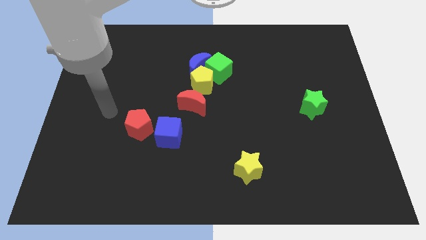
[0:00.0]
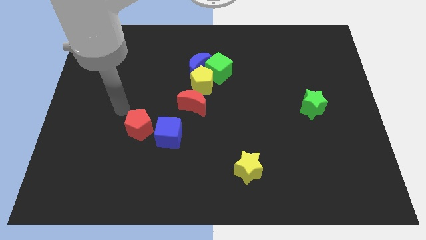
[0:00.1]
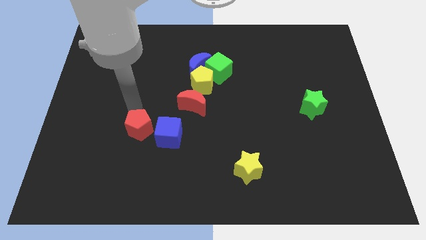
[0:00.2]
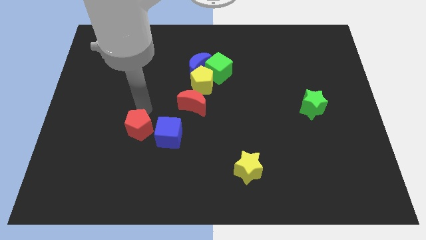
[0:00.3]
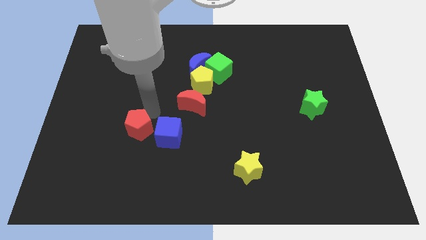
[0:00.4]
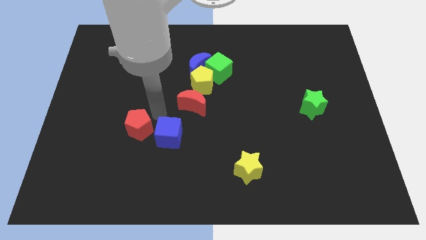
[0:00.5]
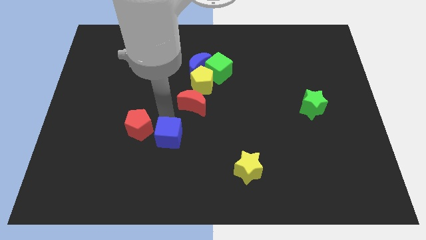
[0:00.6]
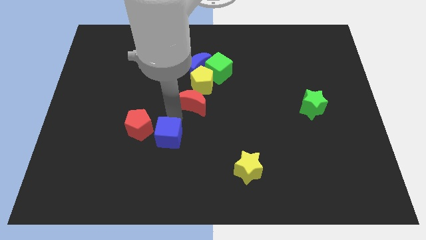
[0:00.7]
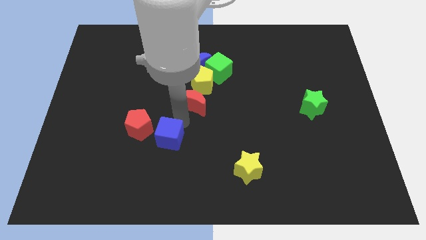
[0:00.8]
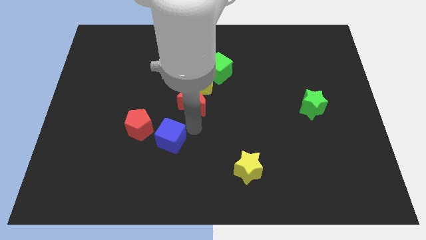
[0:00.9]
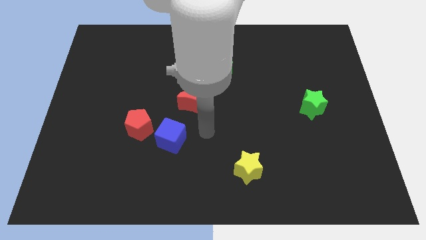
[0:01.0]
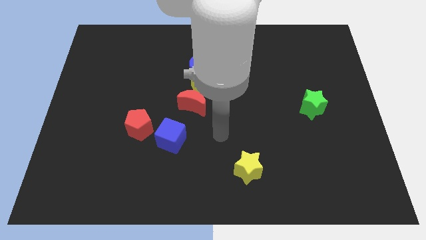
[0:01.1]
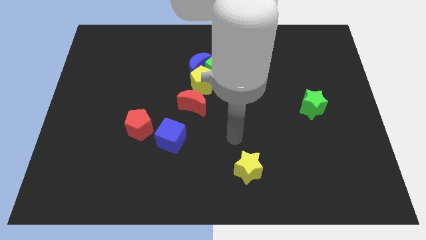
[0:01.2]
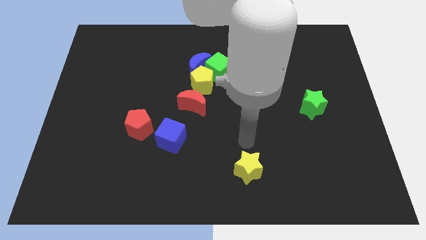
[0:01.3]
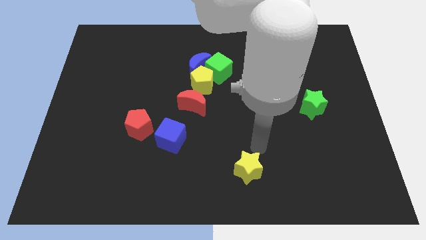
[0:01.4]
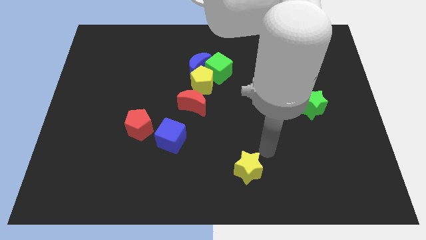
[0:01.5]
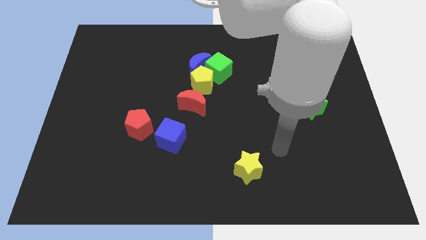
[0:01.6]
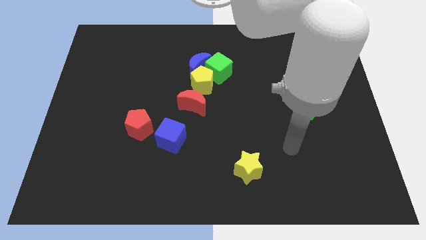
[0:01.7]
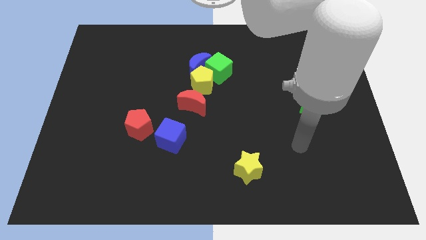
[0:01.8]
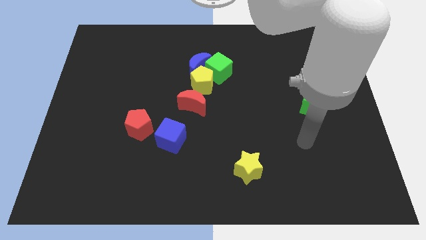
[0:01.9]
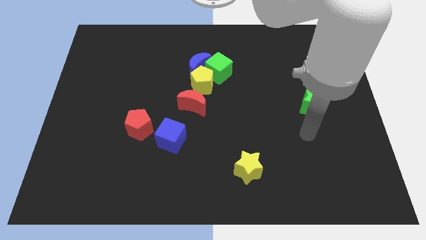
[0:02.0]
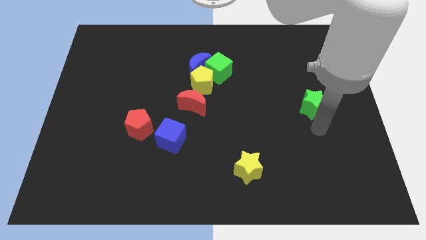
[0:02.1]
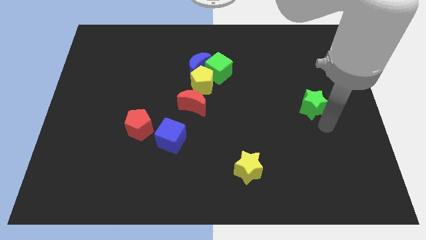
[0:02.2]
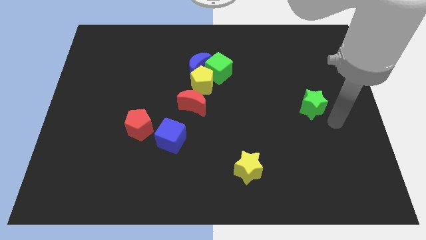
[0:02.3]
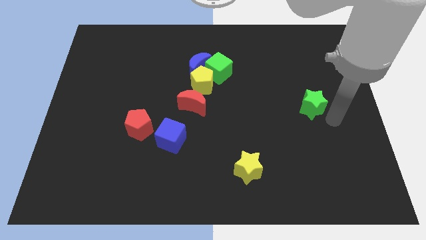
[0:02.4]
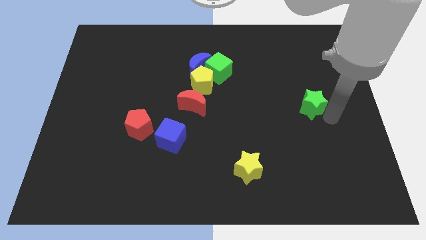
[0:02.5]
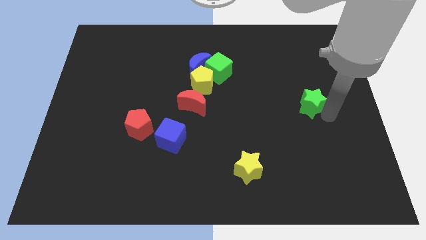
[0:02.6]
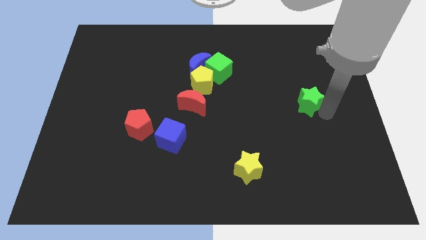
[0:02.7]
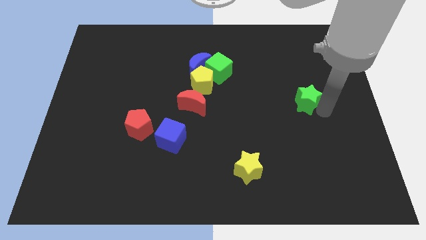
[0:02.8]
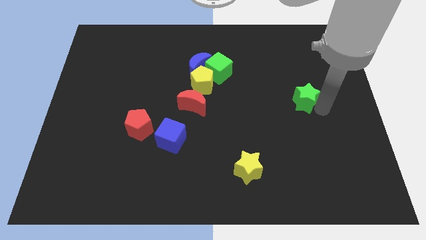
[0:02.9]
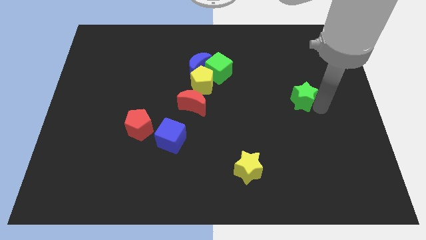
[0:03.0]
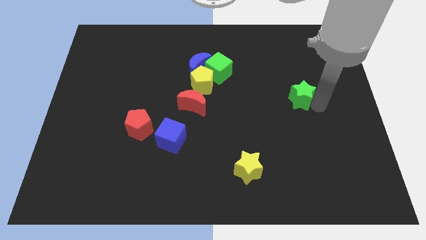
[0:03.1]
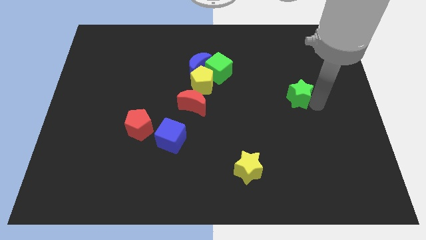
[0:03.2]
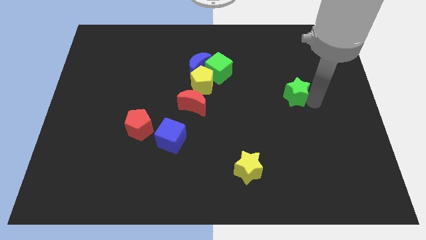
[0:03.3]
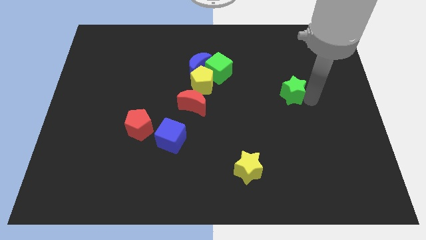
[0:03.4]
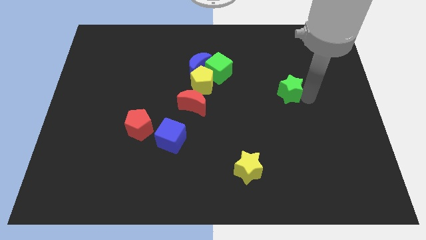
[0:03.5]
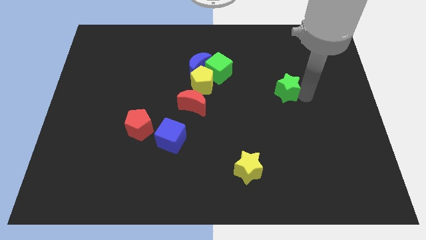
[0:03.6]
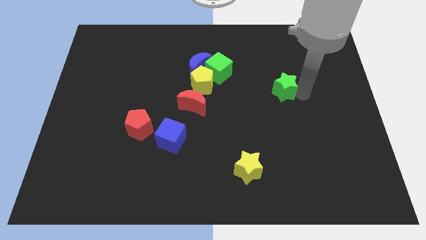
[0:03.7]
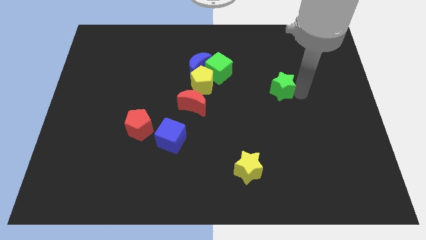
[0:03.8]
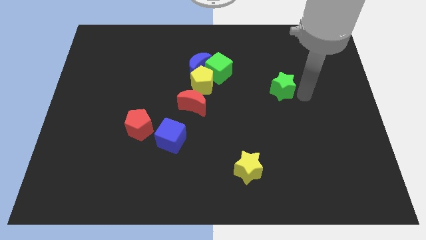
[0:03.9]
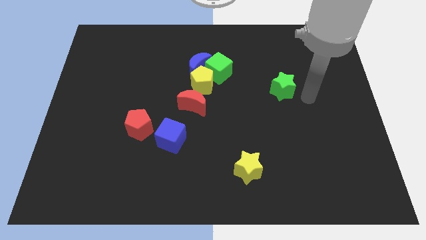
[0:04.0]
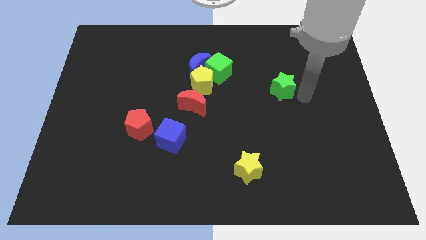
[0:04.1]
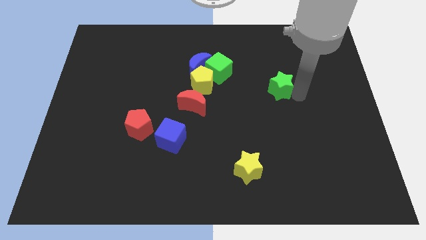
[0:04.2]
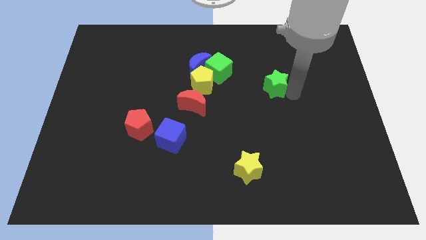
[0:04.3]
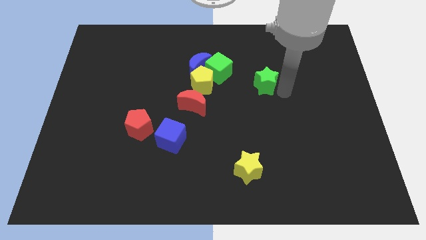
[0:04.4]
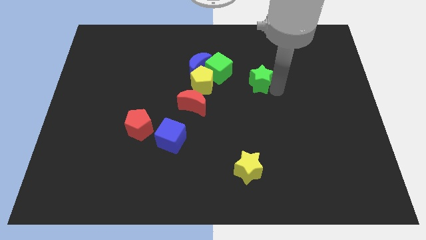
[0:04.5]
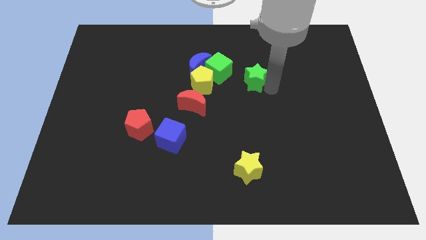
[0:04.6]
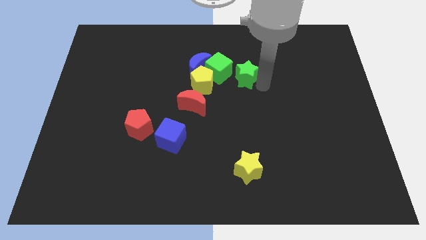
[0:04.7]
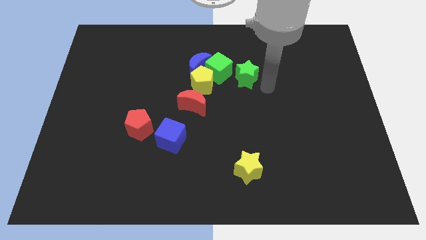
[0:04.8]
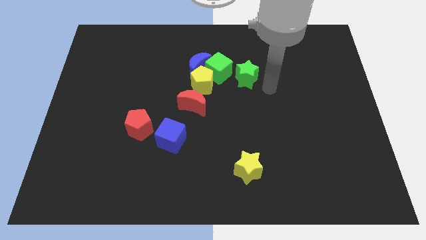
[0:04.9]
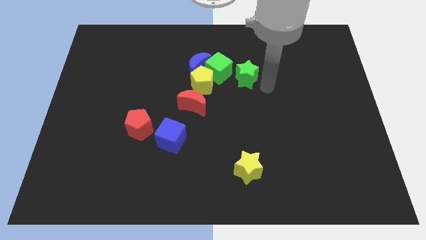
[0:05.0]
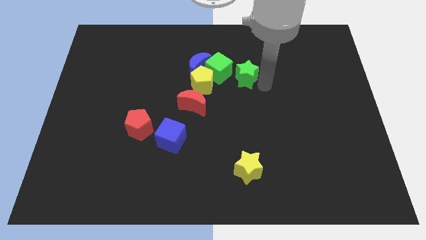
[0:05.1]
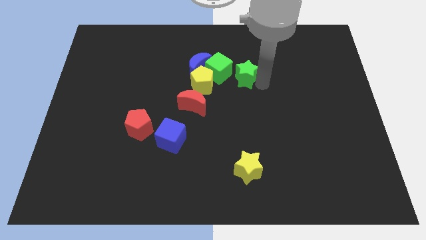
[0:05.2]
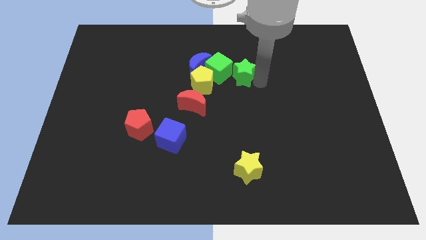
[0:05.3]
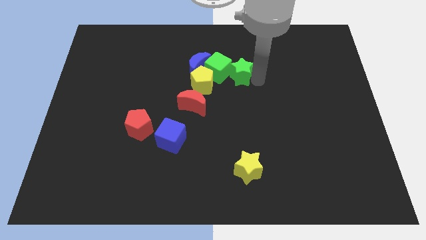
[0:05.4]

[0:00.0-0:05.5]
slide the green star to the top right side of the yellow pentagon

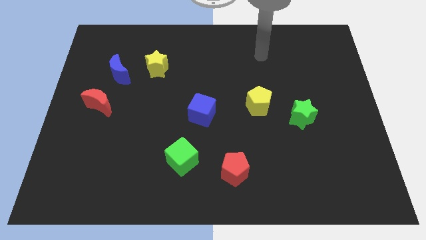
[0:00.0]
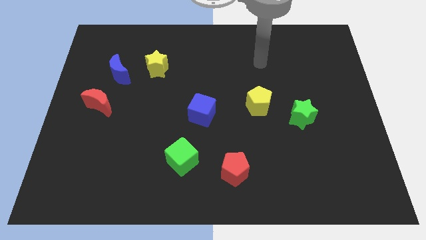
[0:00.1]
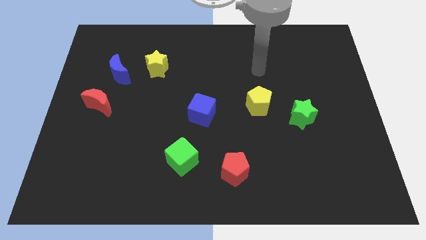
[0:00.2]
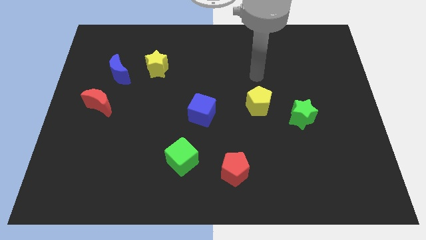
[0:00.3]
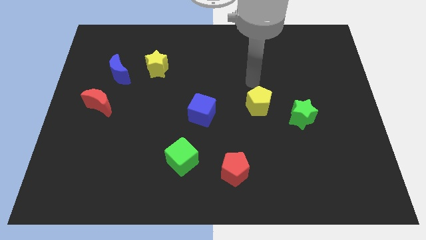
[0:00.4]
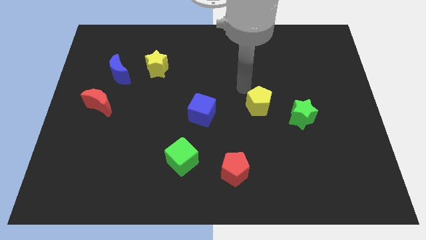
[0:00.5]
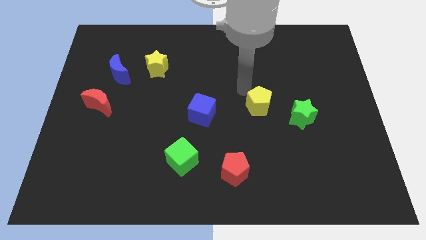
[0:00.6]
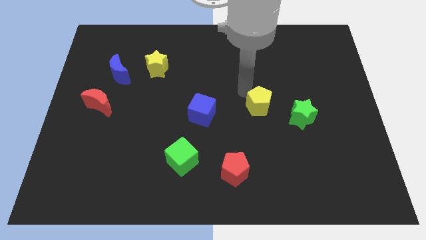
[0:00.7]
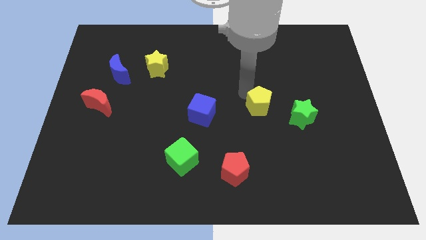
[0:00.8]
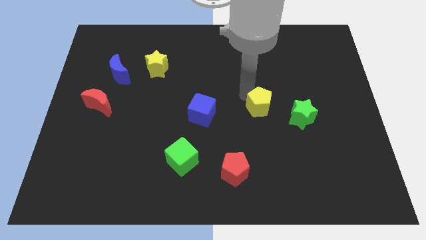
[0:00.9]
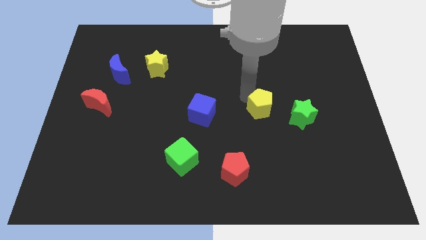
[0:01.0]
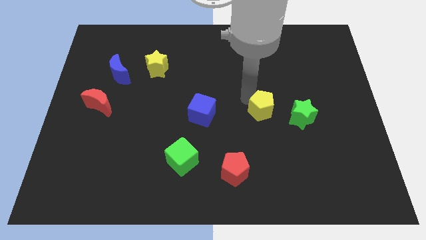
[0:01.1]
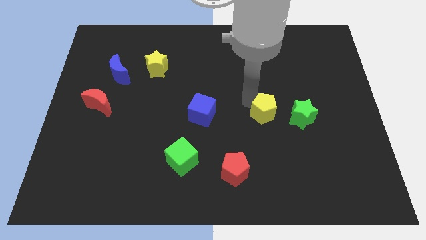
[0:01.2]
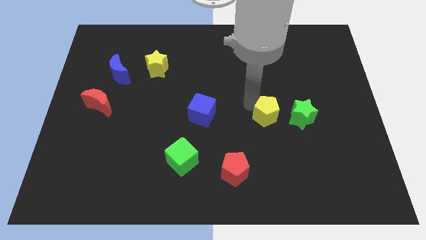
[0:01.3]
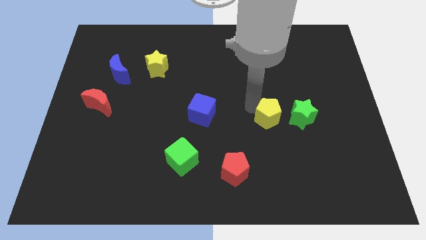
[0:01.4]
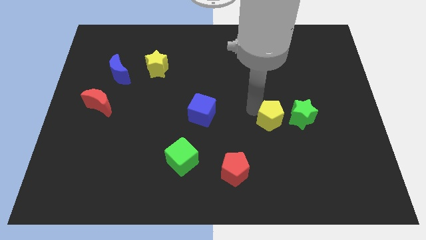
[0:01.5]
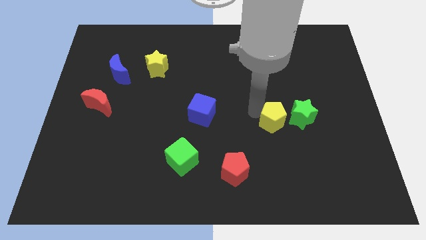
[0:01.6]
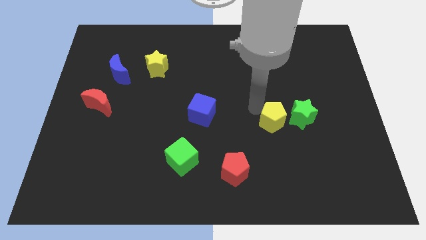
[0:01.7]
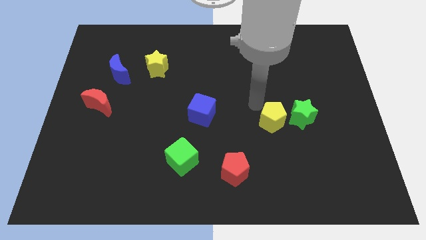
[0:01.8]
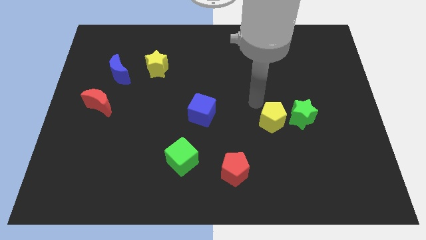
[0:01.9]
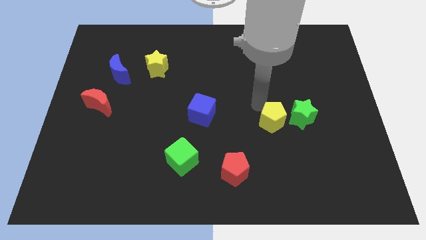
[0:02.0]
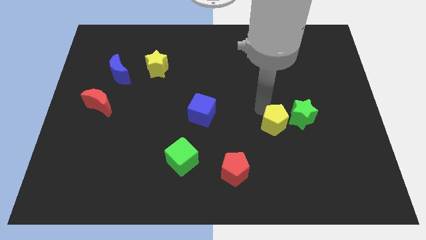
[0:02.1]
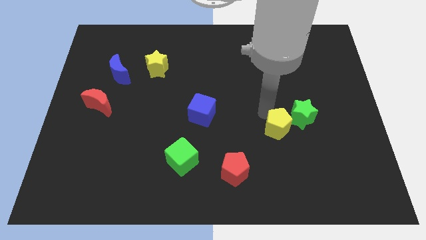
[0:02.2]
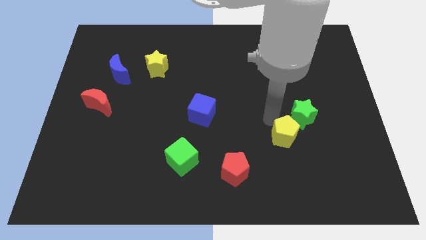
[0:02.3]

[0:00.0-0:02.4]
put the yellow pentagon below the green star
